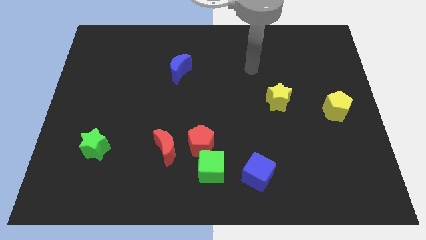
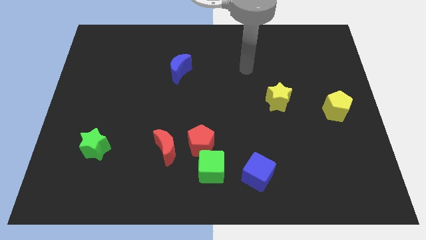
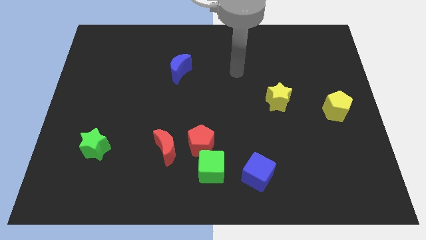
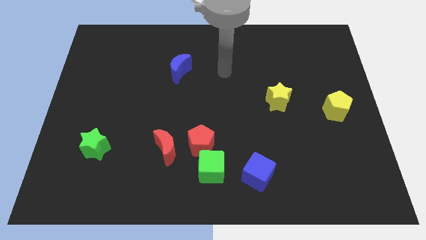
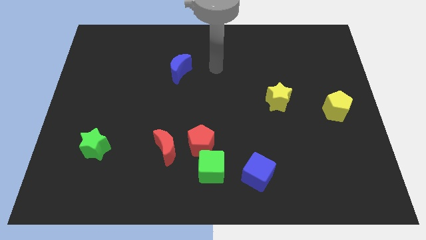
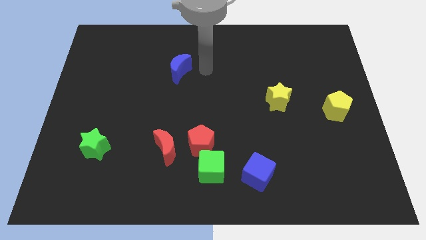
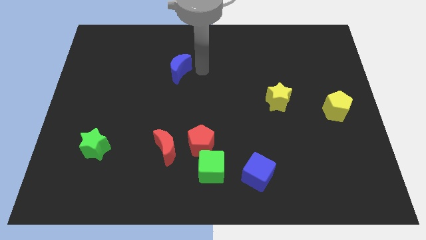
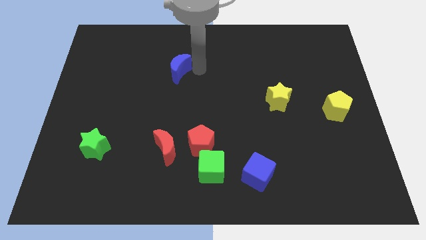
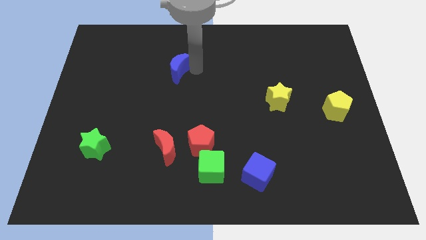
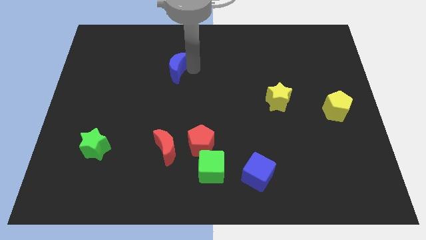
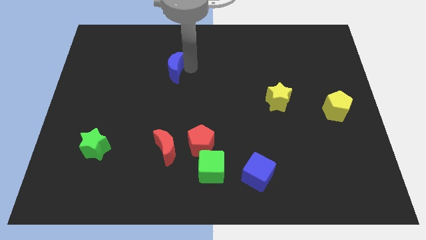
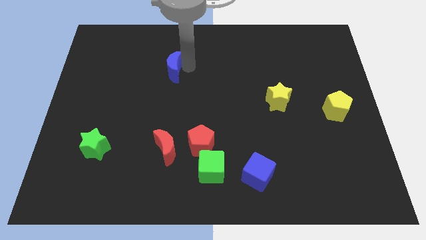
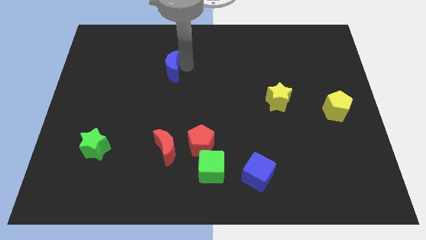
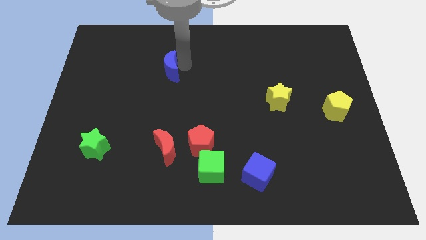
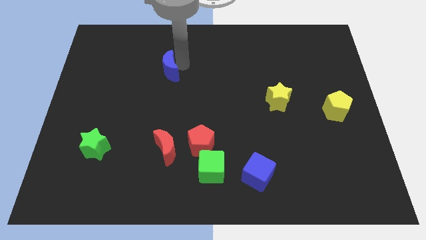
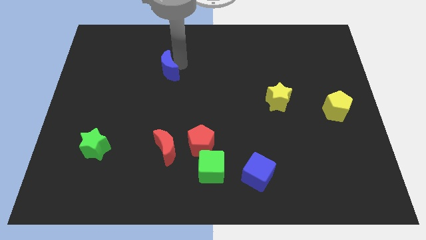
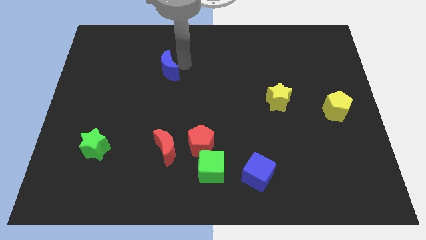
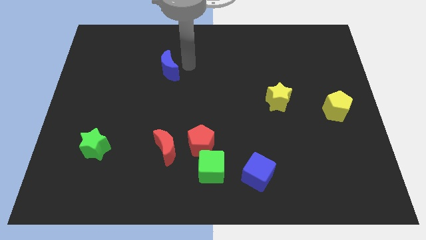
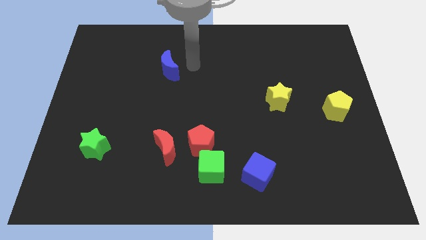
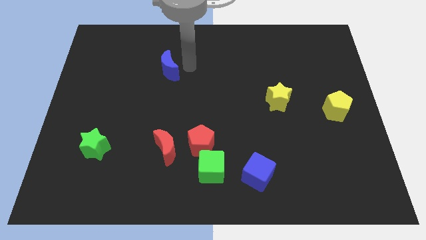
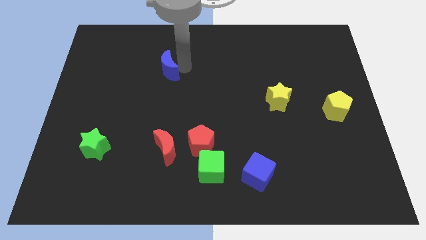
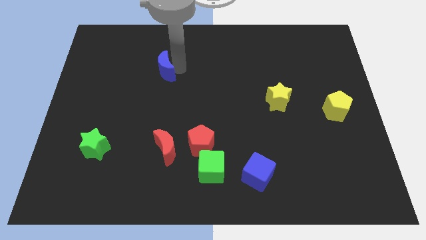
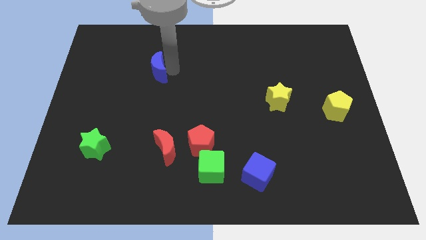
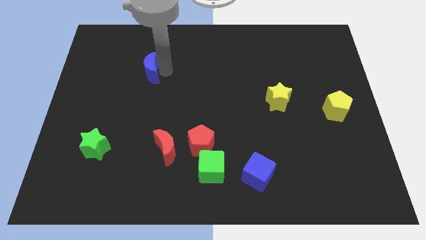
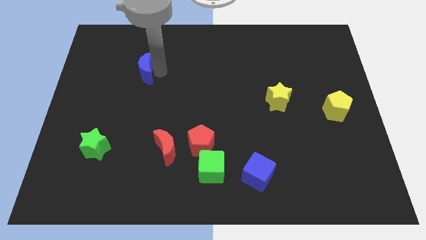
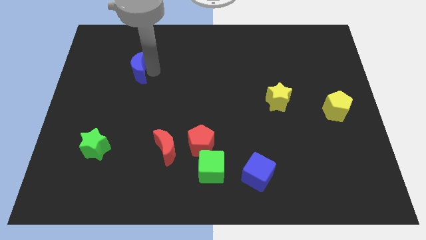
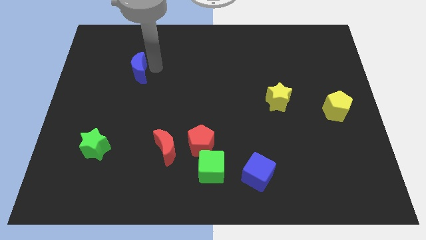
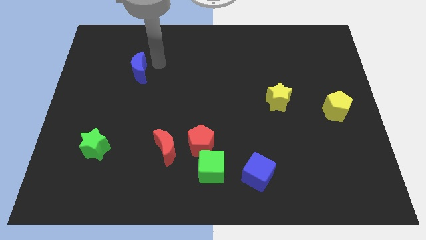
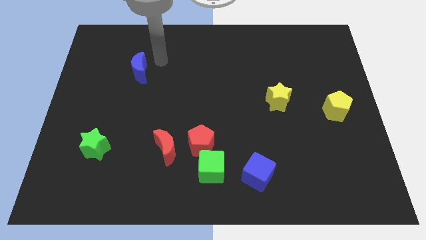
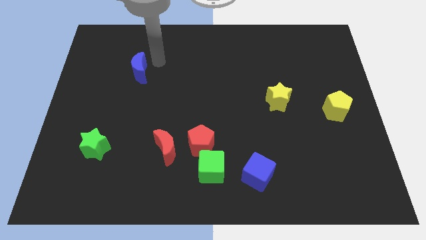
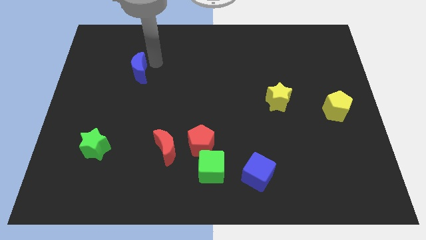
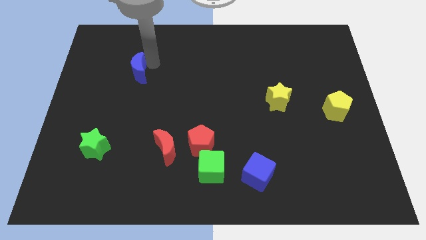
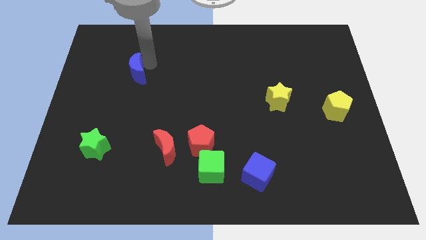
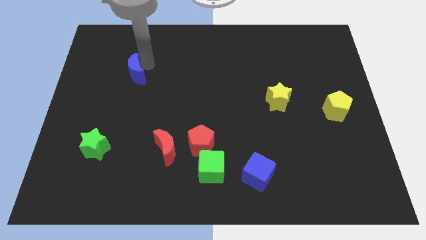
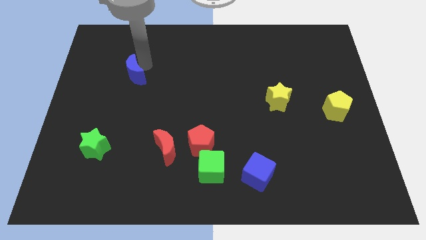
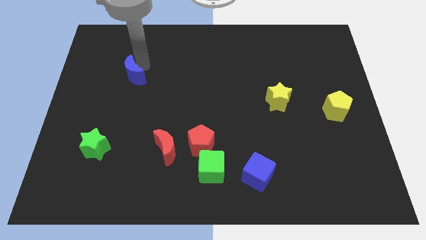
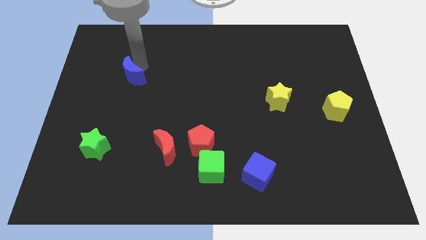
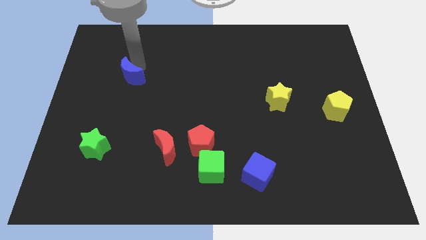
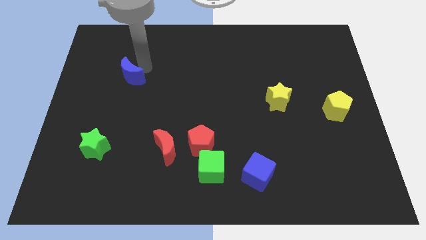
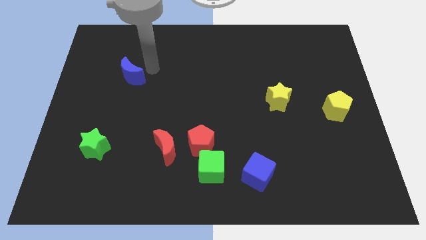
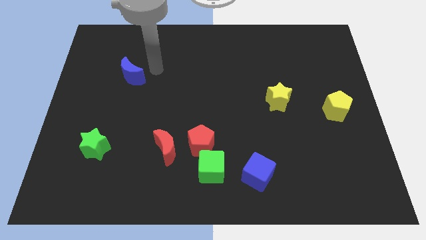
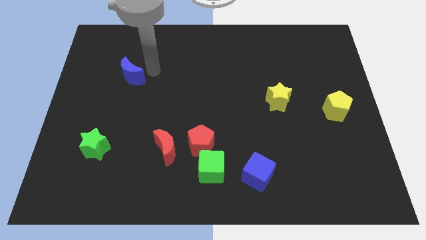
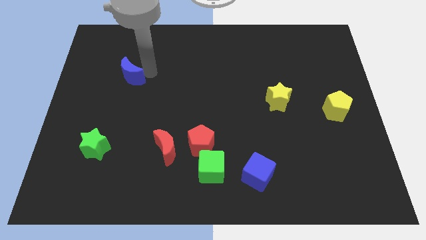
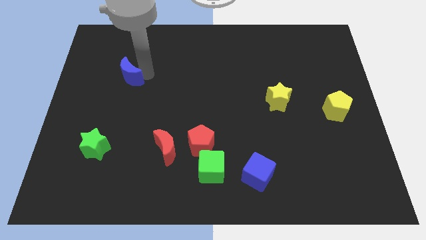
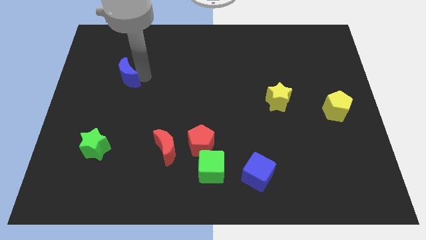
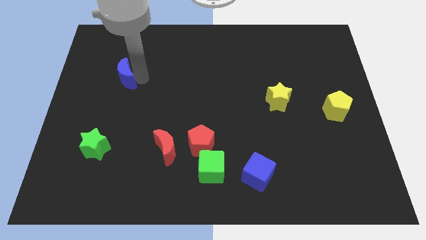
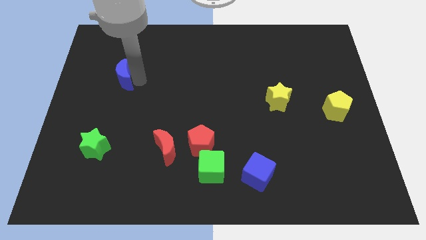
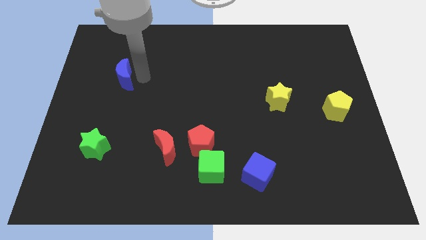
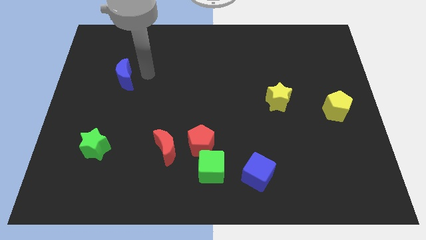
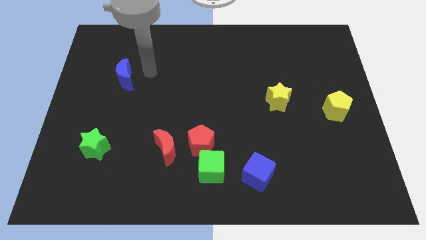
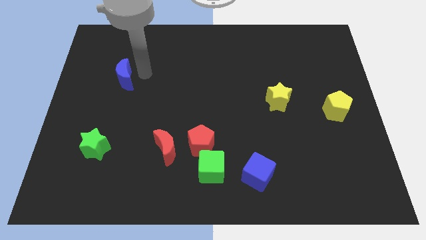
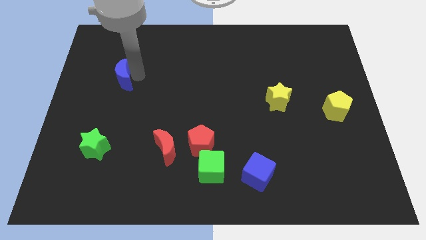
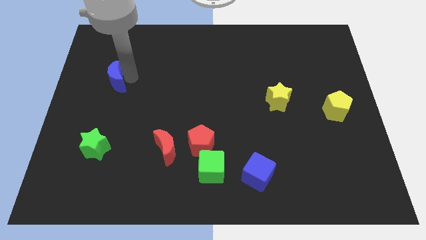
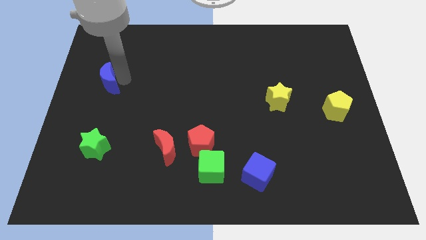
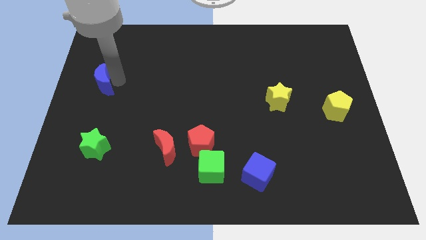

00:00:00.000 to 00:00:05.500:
put the blue moon to the center left

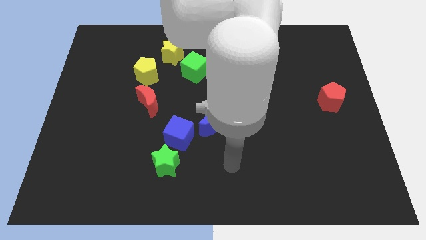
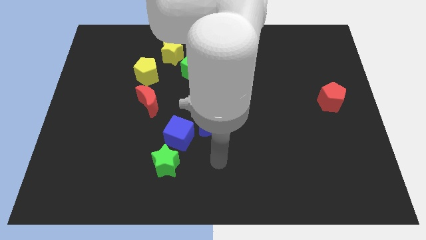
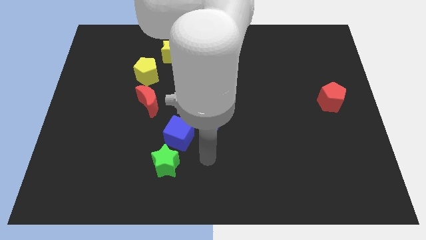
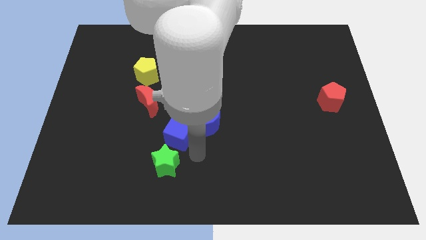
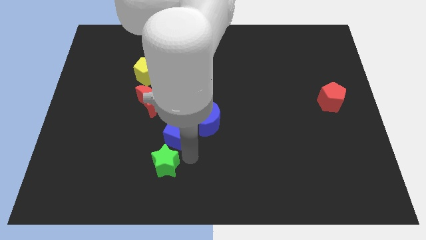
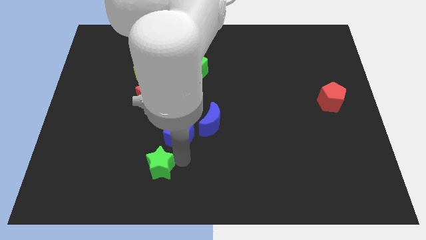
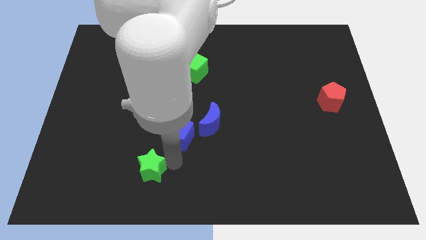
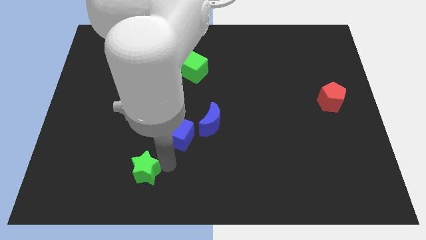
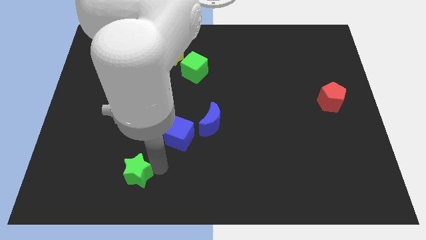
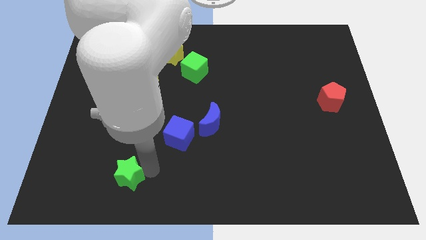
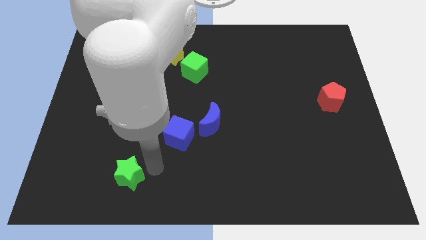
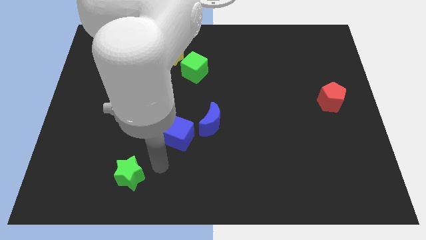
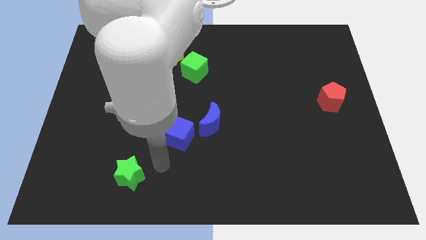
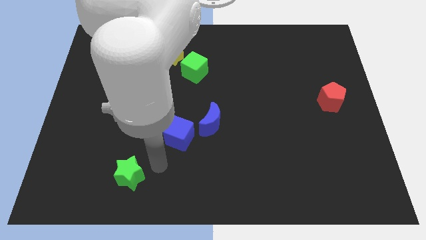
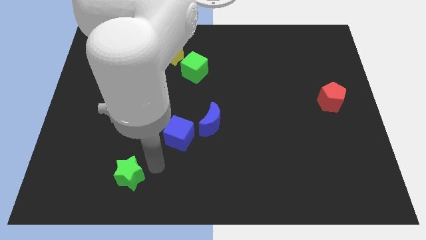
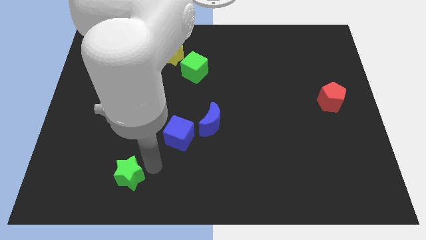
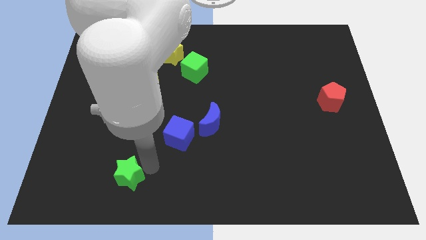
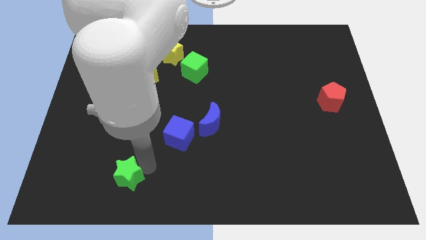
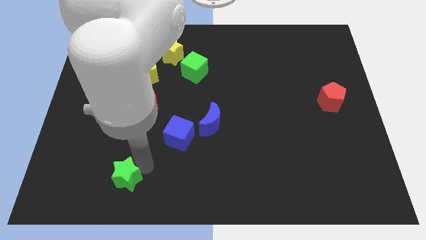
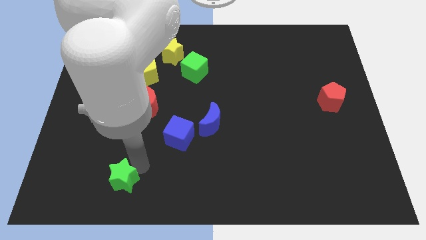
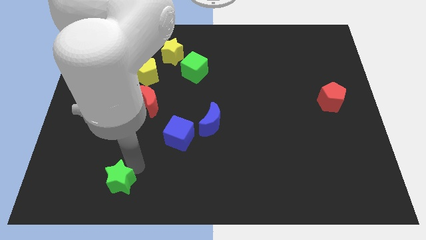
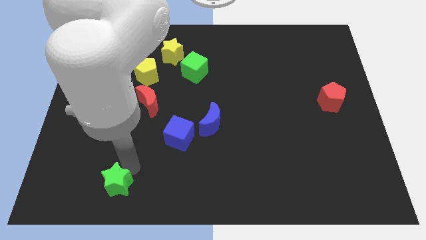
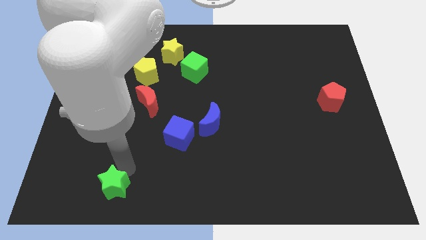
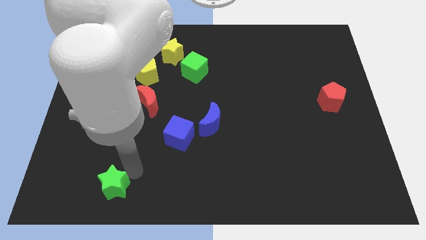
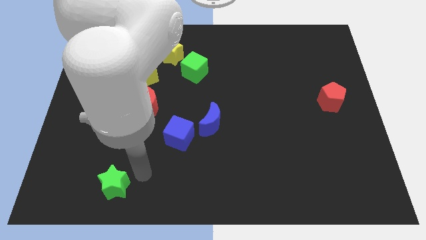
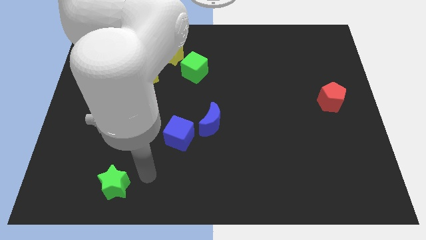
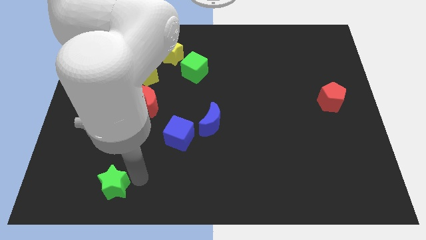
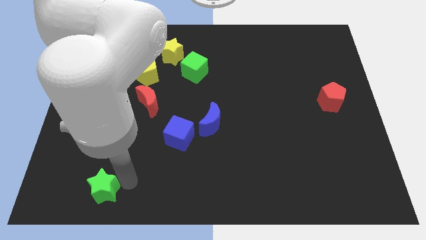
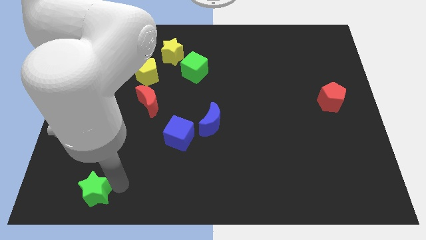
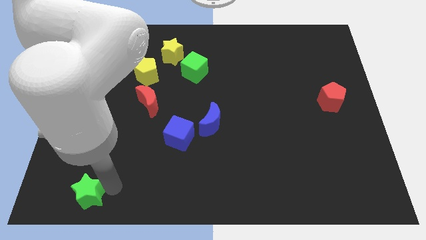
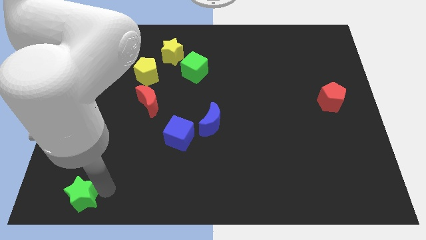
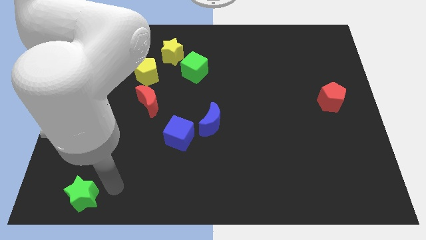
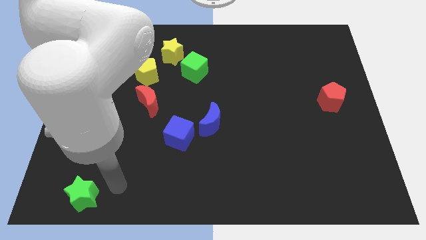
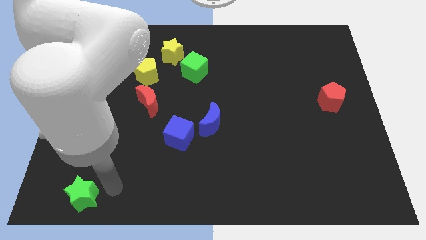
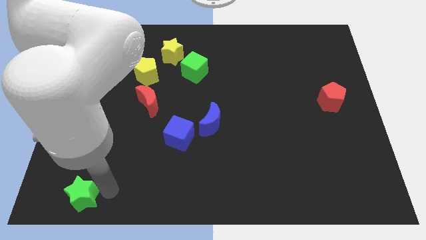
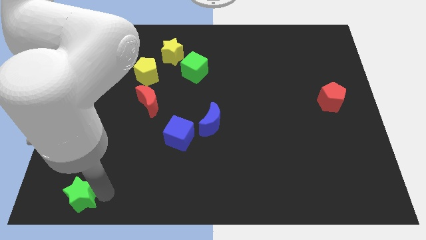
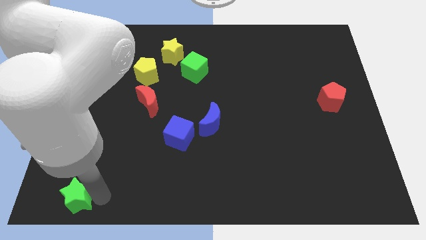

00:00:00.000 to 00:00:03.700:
move the green star to the lower left corner
